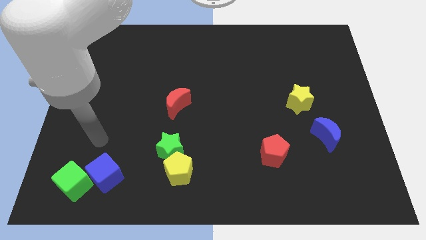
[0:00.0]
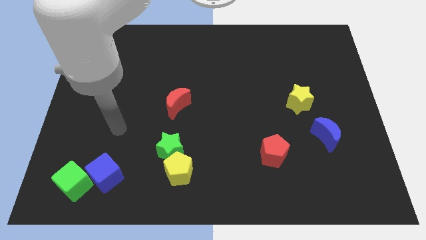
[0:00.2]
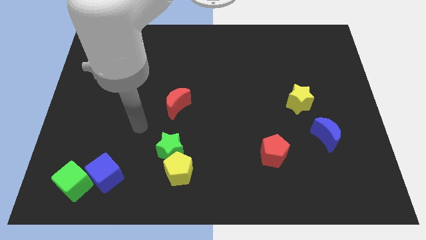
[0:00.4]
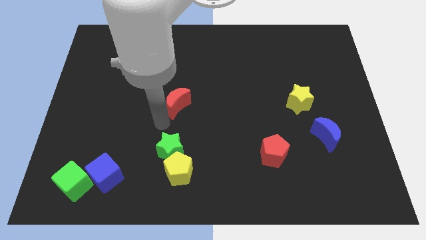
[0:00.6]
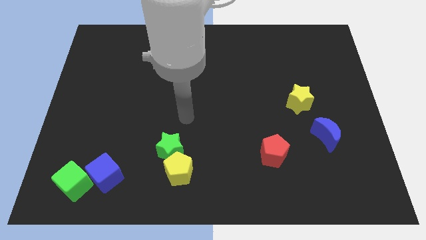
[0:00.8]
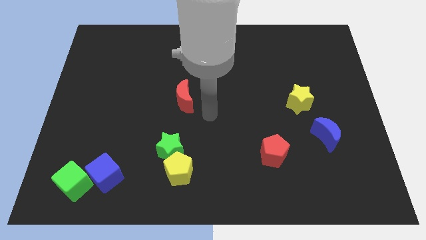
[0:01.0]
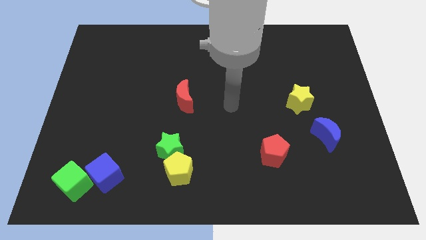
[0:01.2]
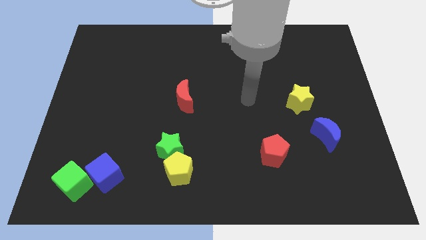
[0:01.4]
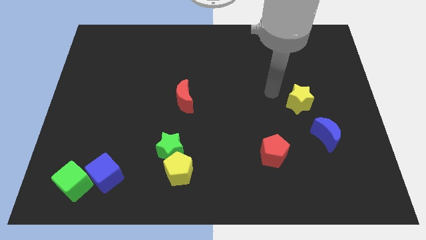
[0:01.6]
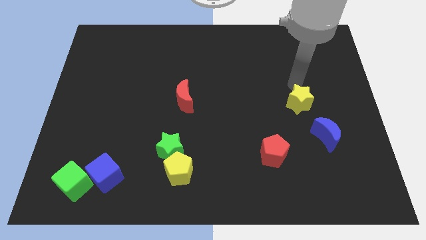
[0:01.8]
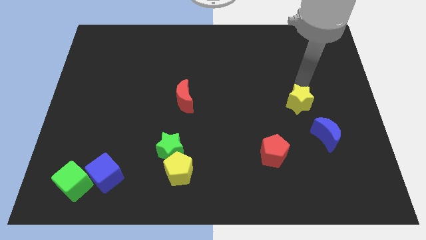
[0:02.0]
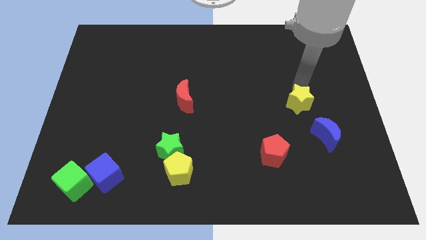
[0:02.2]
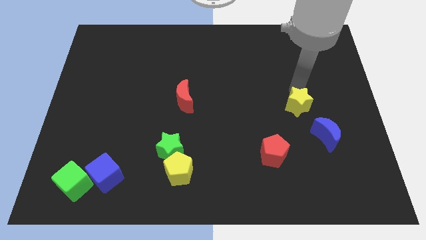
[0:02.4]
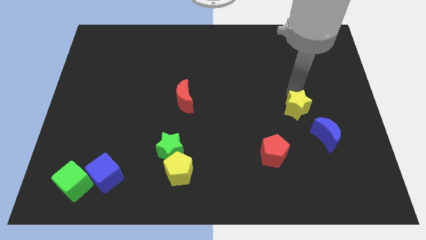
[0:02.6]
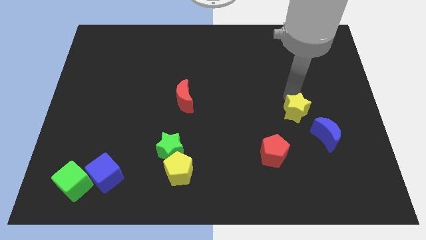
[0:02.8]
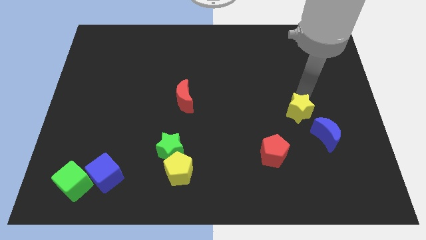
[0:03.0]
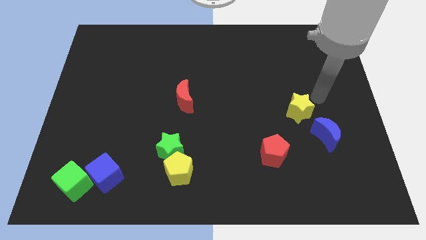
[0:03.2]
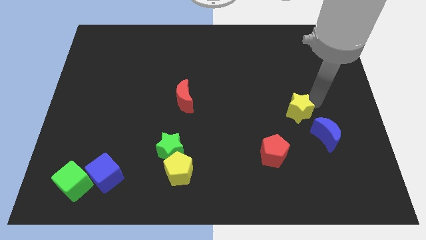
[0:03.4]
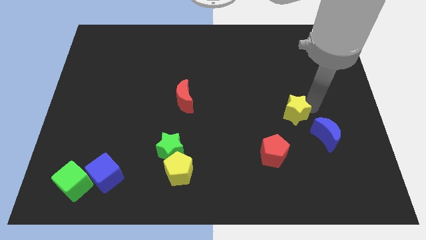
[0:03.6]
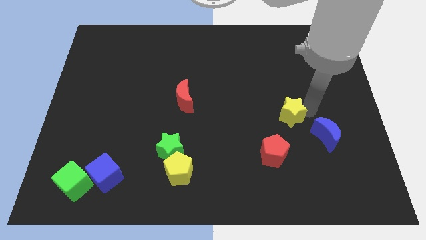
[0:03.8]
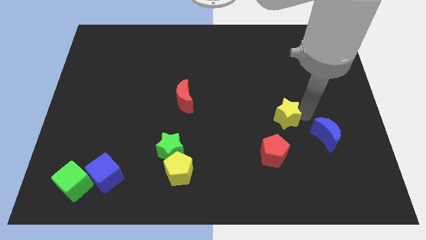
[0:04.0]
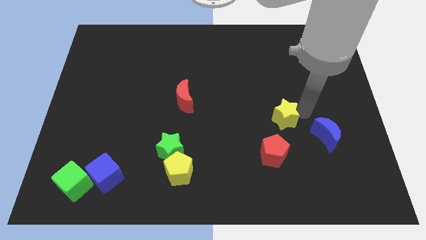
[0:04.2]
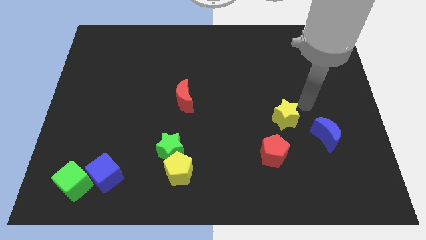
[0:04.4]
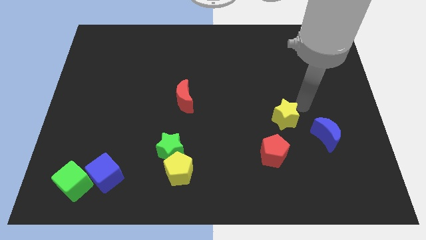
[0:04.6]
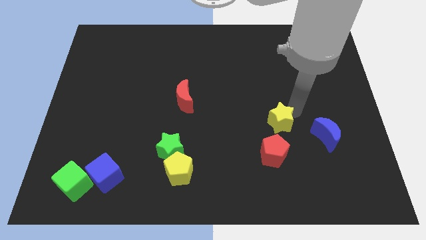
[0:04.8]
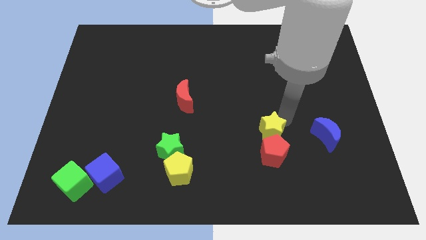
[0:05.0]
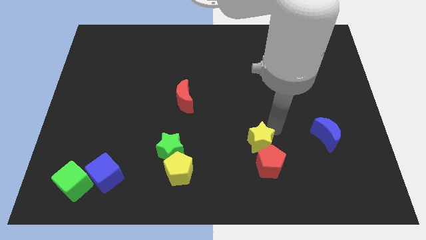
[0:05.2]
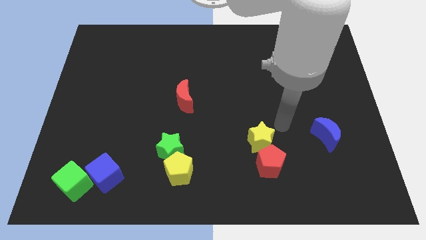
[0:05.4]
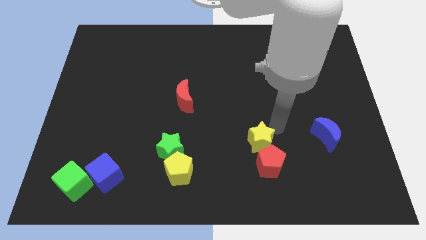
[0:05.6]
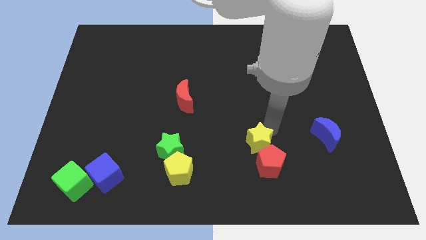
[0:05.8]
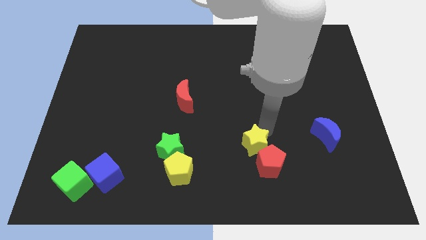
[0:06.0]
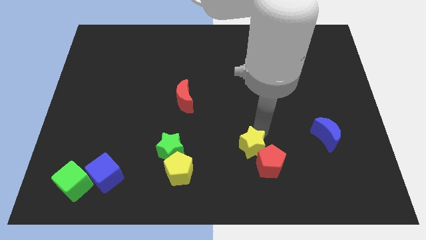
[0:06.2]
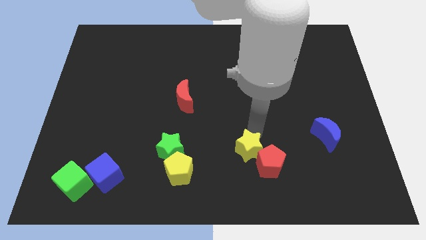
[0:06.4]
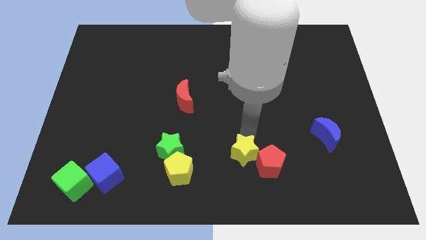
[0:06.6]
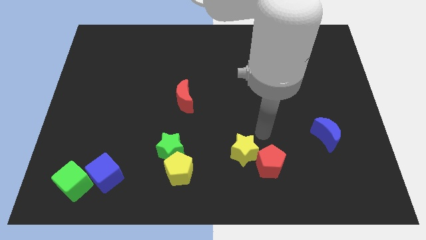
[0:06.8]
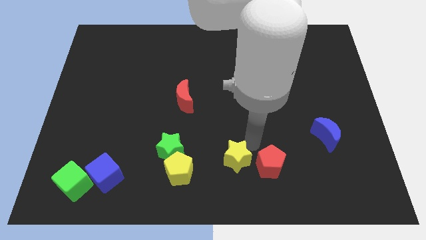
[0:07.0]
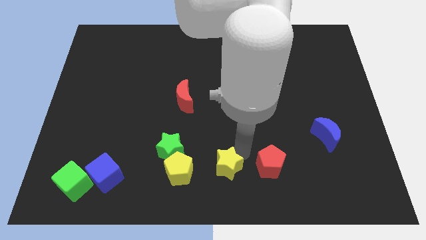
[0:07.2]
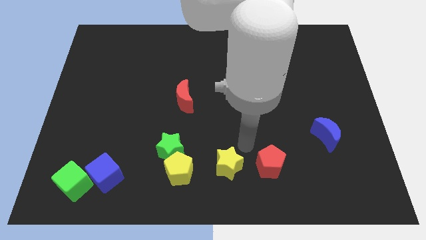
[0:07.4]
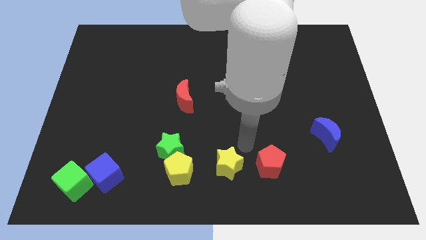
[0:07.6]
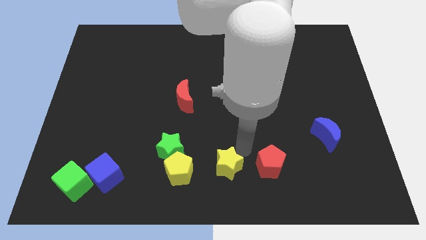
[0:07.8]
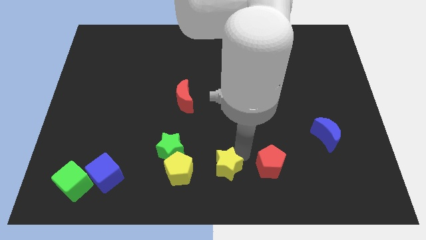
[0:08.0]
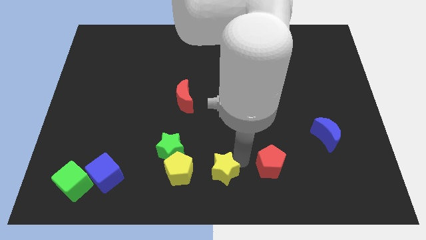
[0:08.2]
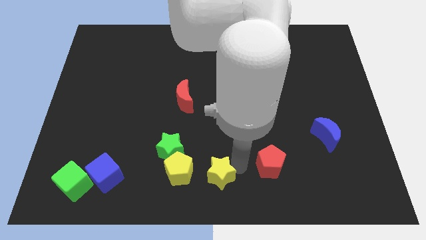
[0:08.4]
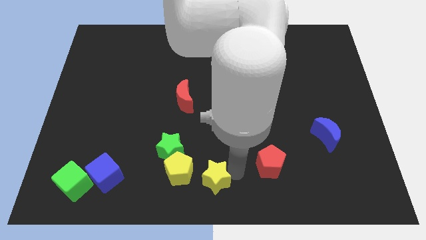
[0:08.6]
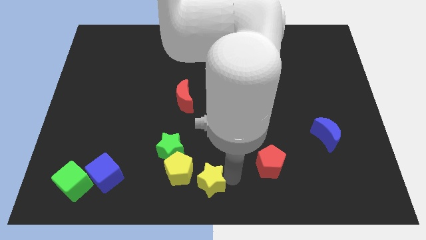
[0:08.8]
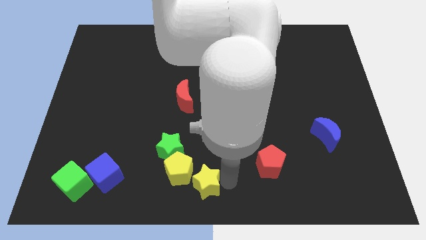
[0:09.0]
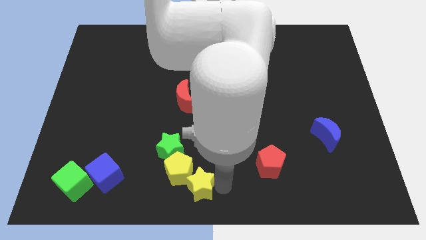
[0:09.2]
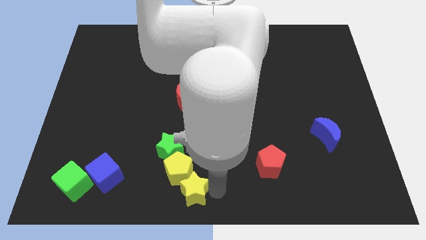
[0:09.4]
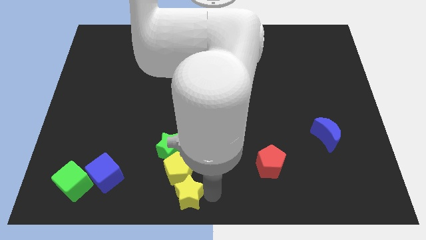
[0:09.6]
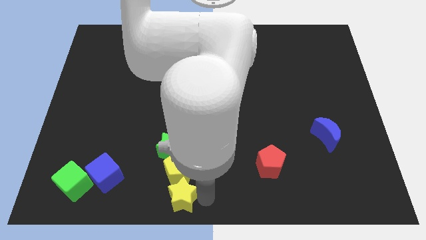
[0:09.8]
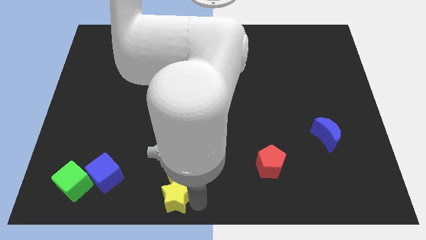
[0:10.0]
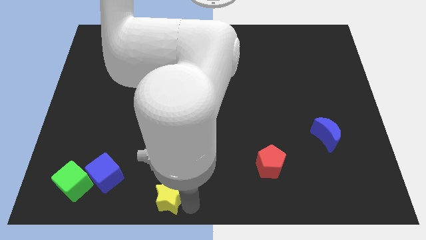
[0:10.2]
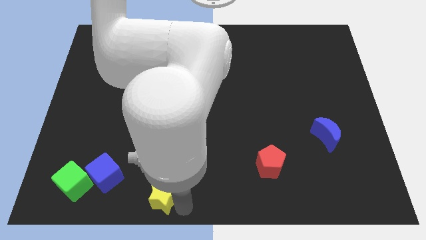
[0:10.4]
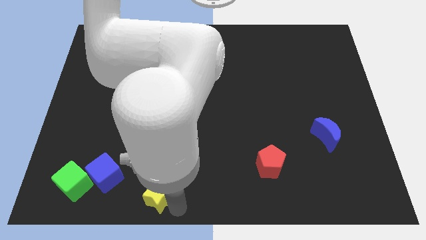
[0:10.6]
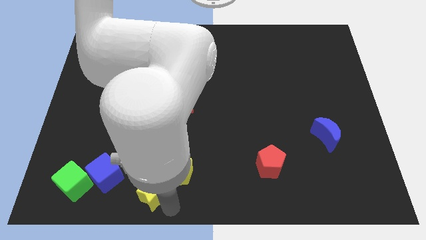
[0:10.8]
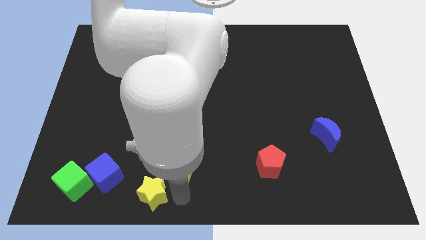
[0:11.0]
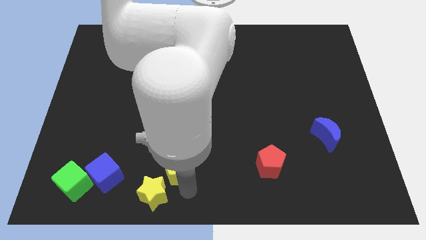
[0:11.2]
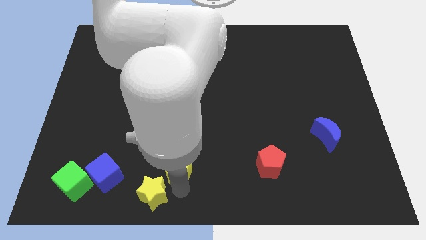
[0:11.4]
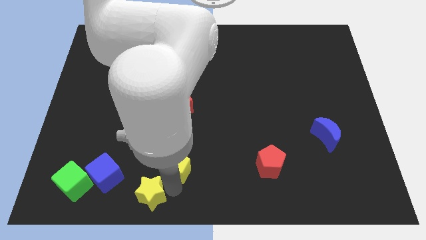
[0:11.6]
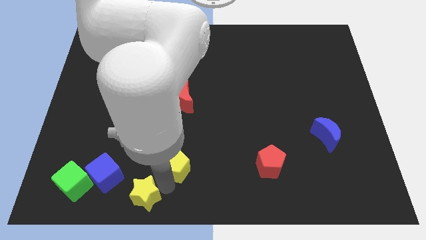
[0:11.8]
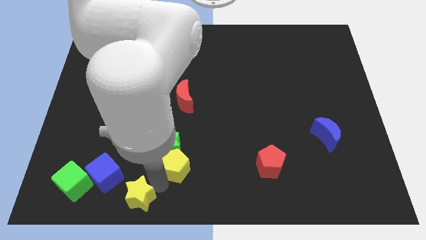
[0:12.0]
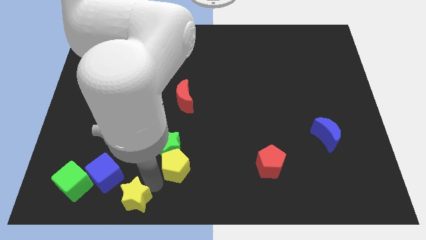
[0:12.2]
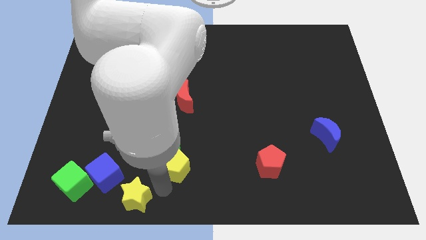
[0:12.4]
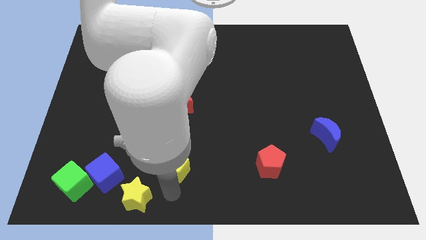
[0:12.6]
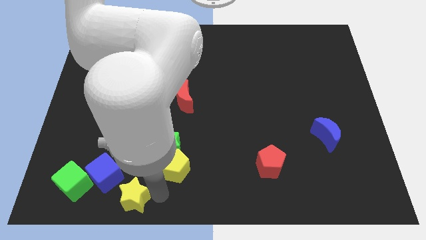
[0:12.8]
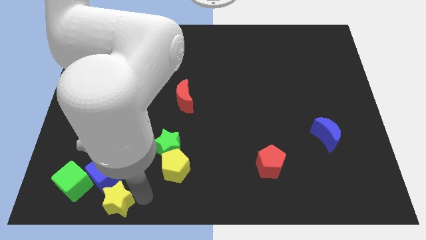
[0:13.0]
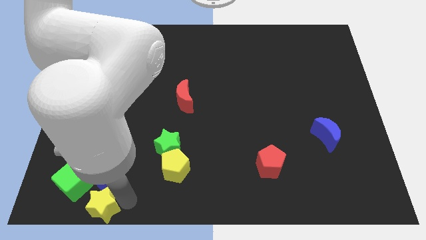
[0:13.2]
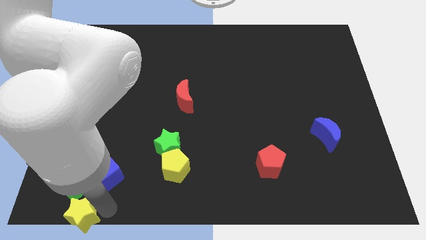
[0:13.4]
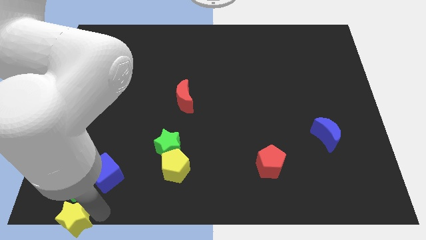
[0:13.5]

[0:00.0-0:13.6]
move the yellow star to the bottom left of the board

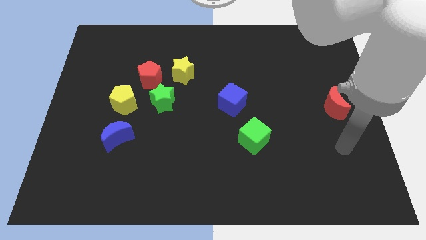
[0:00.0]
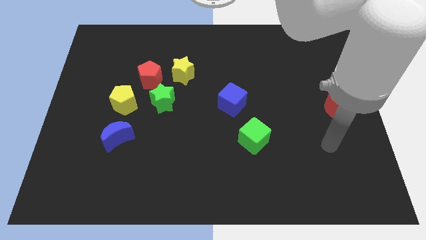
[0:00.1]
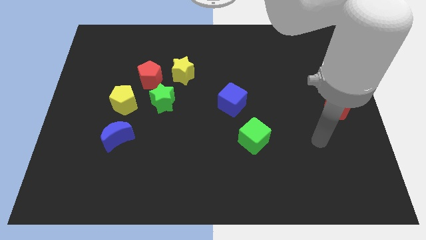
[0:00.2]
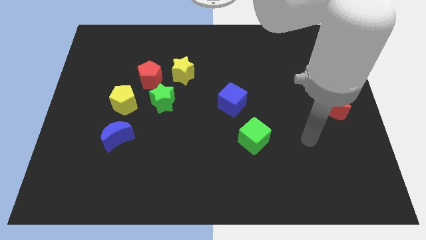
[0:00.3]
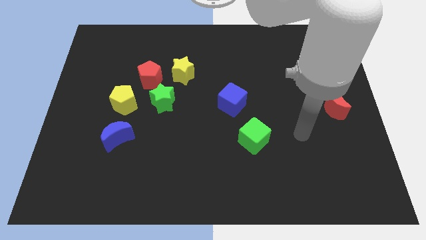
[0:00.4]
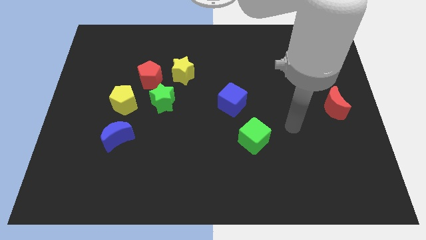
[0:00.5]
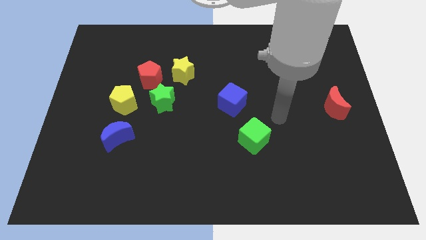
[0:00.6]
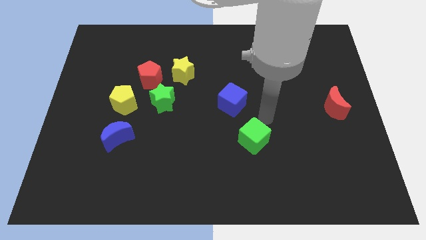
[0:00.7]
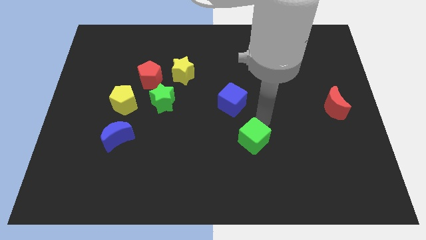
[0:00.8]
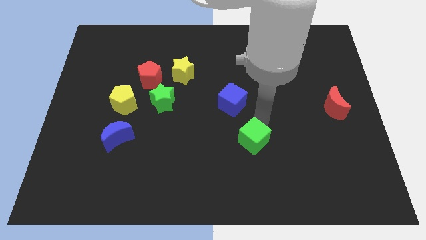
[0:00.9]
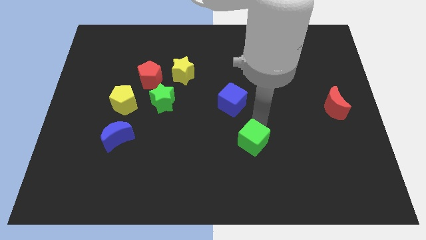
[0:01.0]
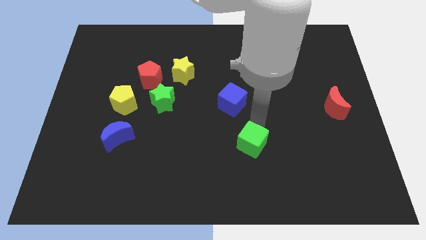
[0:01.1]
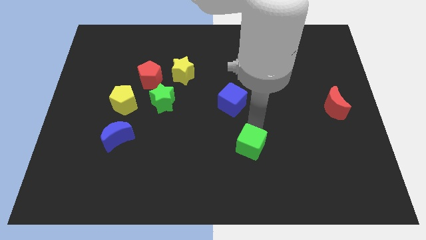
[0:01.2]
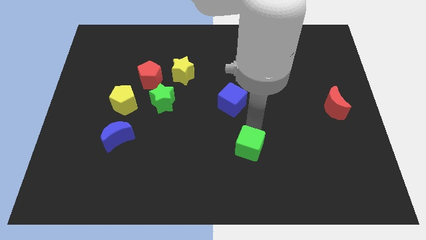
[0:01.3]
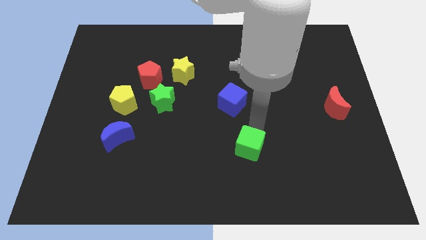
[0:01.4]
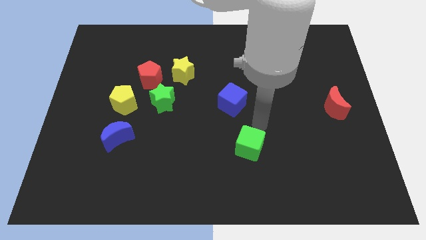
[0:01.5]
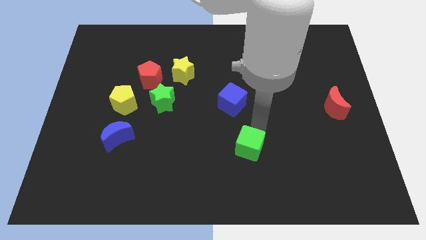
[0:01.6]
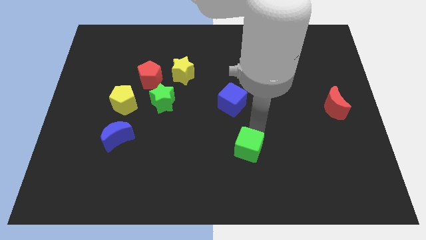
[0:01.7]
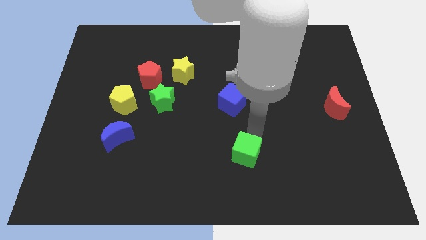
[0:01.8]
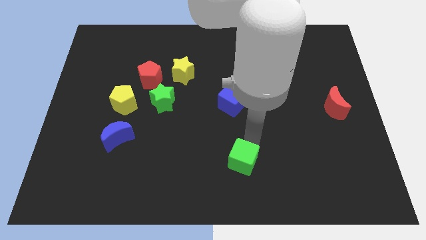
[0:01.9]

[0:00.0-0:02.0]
slide the green cube to the bottom
